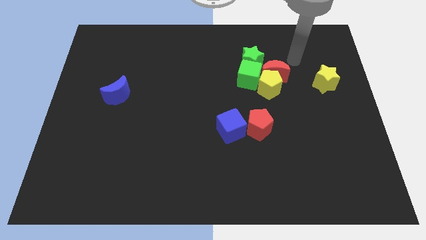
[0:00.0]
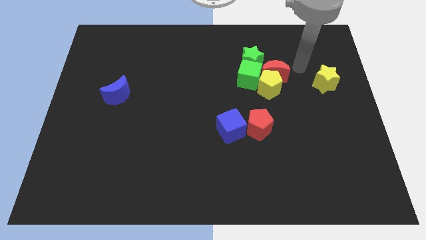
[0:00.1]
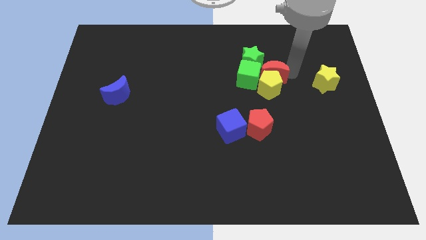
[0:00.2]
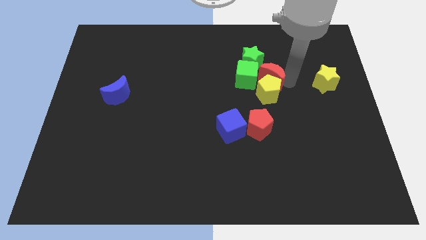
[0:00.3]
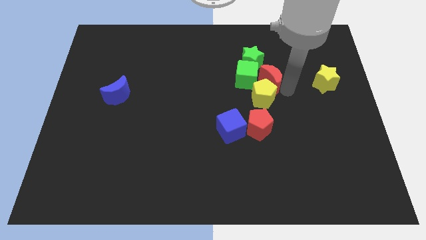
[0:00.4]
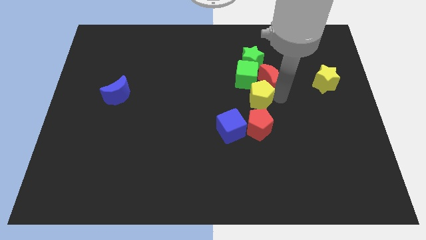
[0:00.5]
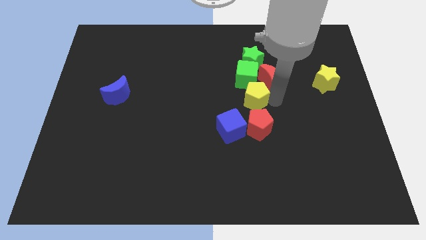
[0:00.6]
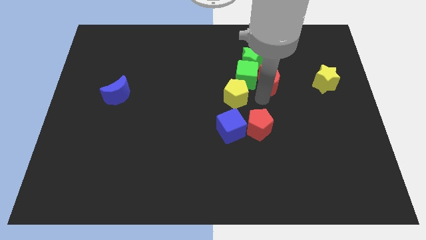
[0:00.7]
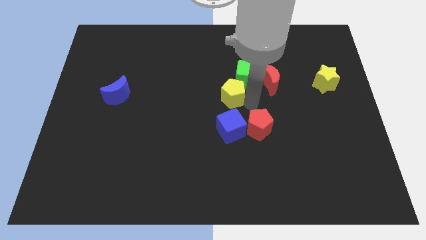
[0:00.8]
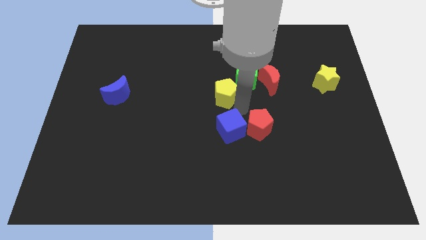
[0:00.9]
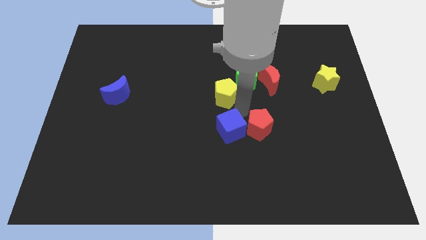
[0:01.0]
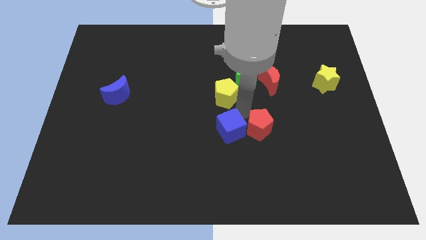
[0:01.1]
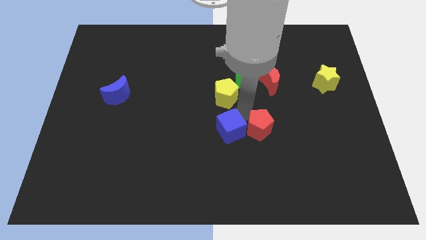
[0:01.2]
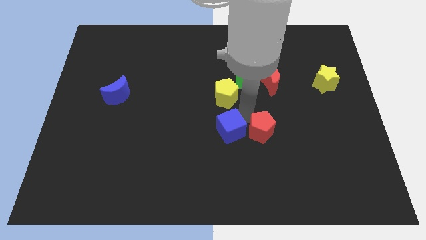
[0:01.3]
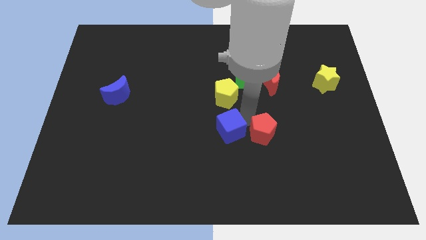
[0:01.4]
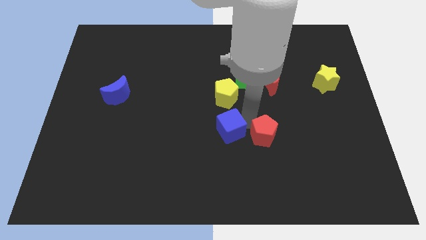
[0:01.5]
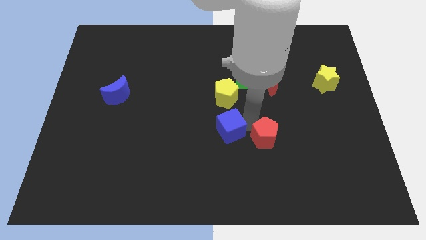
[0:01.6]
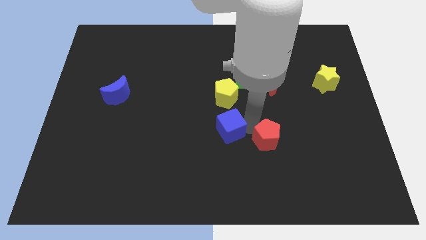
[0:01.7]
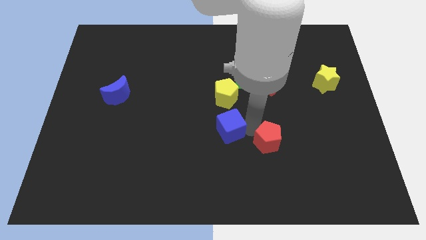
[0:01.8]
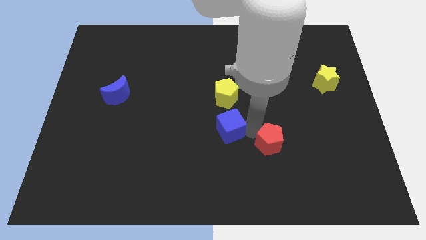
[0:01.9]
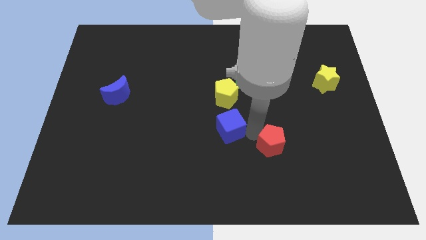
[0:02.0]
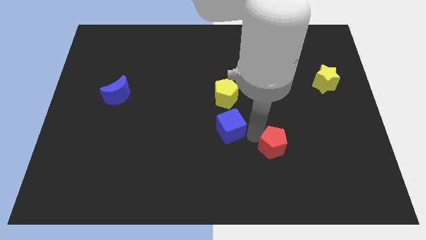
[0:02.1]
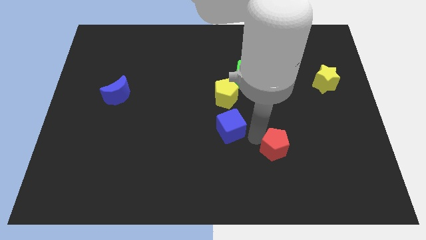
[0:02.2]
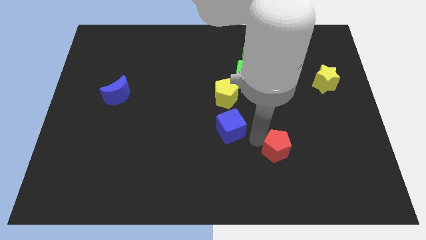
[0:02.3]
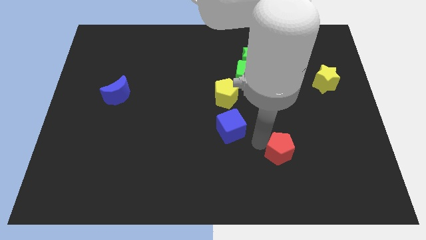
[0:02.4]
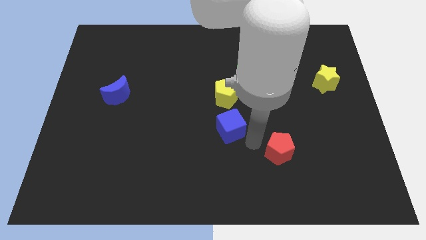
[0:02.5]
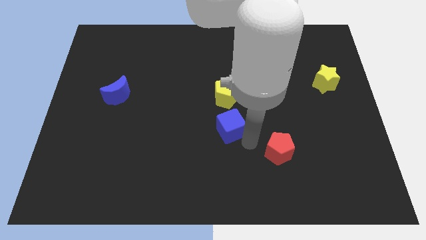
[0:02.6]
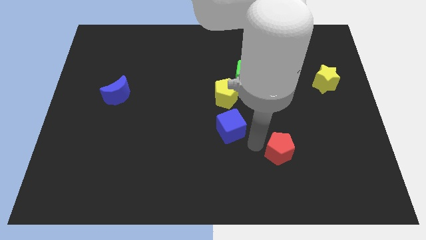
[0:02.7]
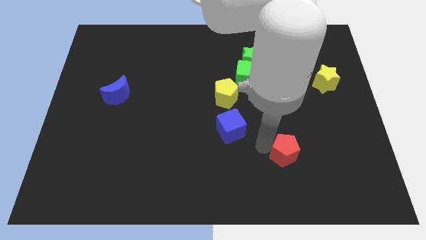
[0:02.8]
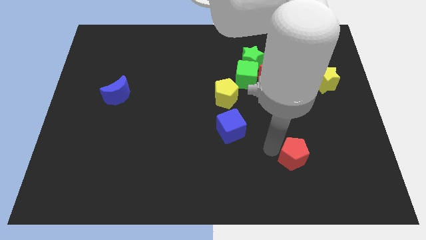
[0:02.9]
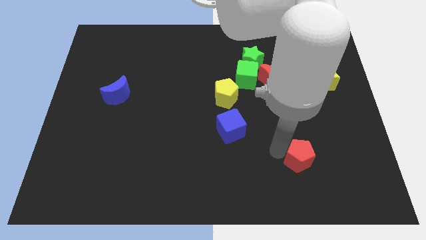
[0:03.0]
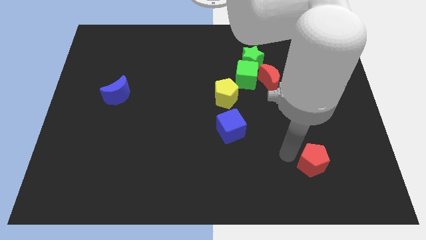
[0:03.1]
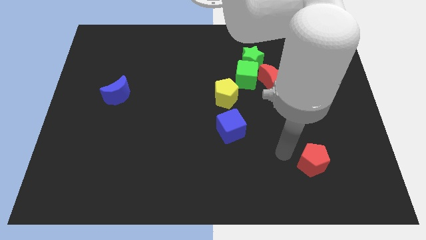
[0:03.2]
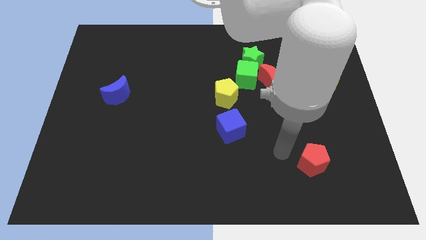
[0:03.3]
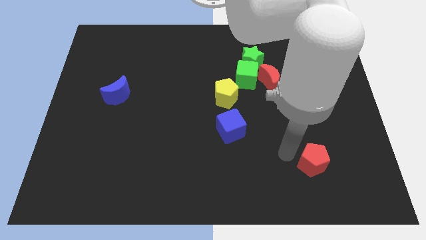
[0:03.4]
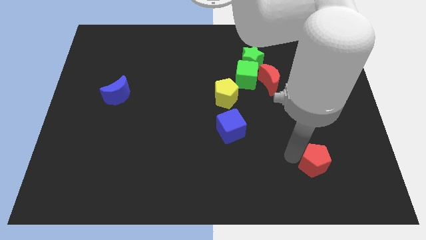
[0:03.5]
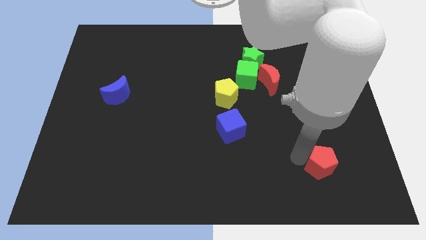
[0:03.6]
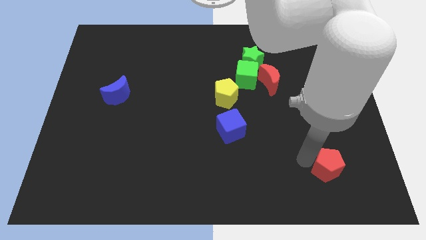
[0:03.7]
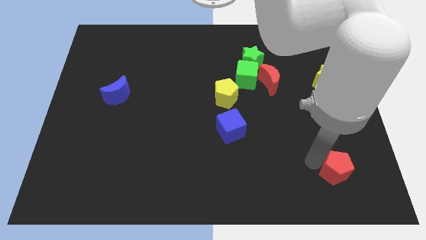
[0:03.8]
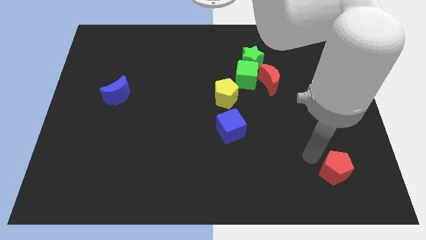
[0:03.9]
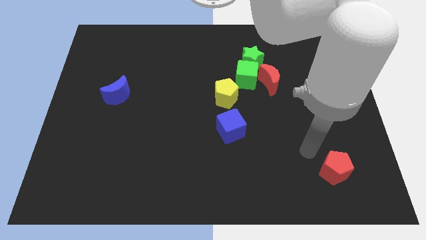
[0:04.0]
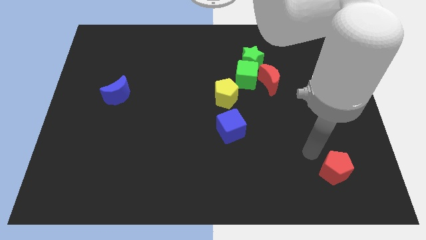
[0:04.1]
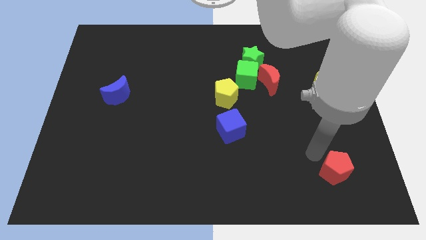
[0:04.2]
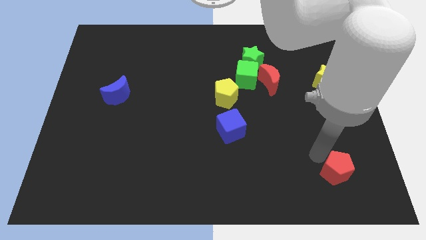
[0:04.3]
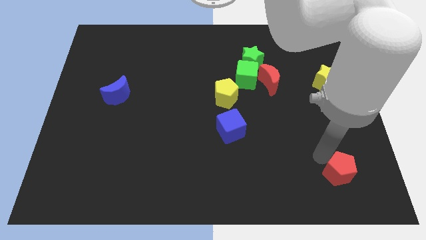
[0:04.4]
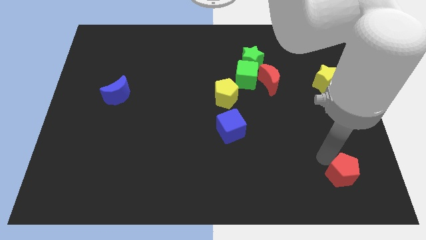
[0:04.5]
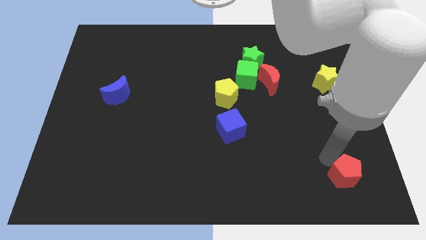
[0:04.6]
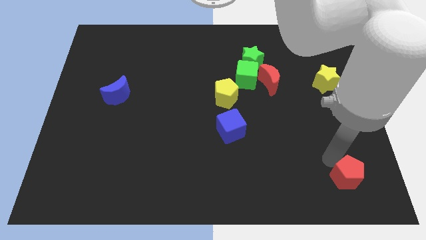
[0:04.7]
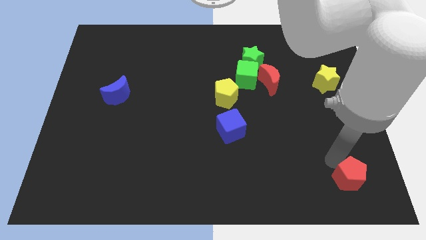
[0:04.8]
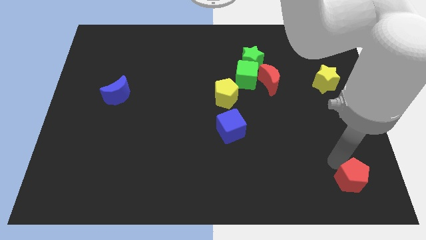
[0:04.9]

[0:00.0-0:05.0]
slide the red pentagon to the bottom right of the board

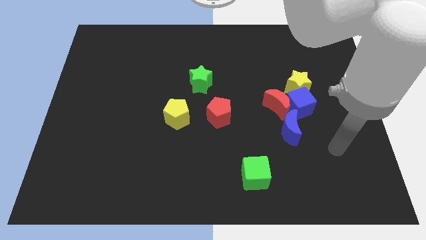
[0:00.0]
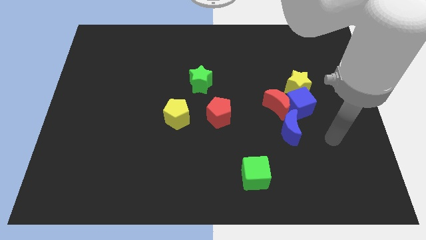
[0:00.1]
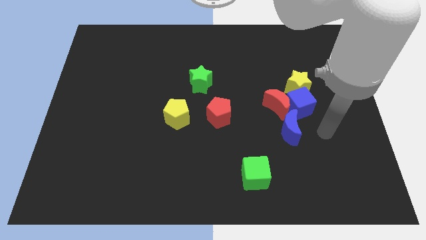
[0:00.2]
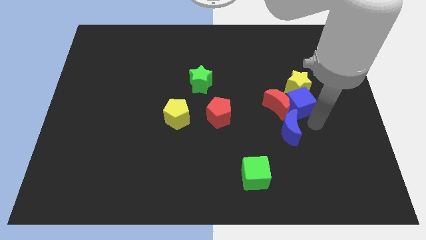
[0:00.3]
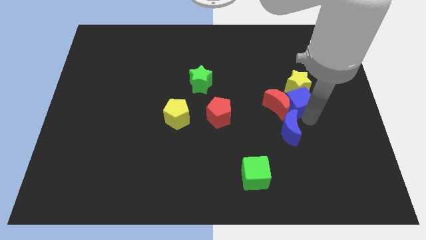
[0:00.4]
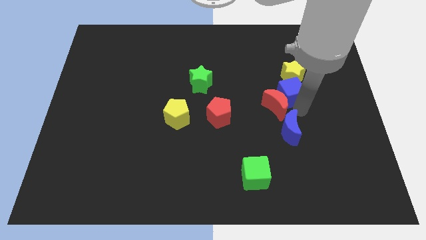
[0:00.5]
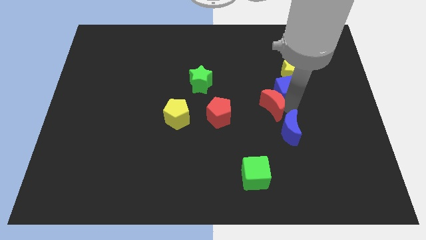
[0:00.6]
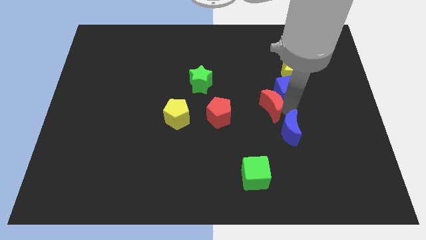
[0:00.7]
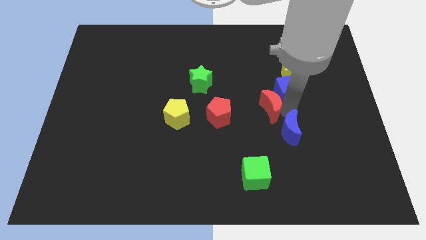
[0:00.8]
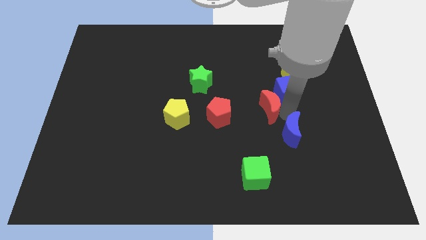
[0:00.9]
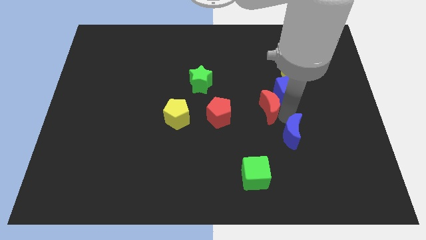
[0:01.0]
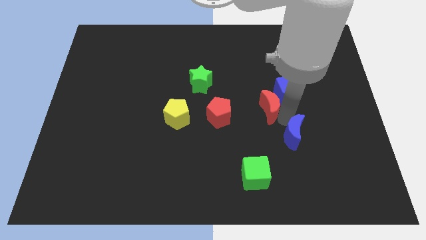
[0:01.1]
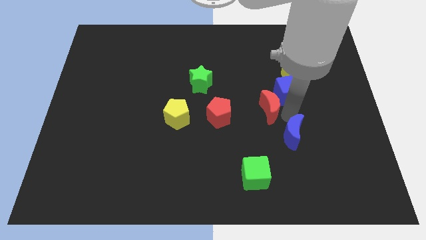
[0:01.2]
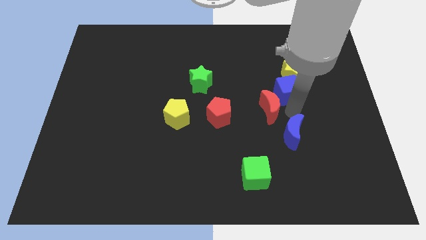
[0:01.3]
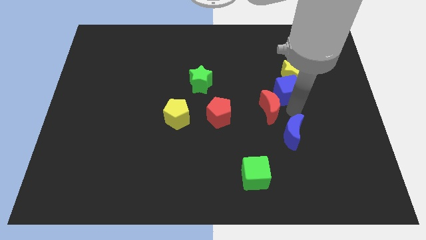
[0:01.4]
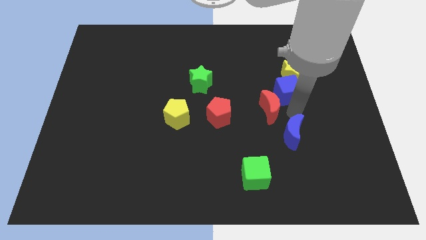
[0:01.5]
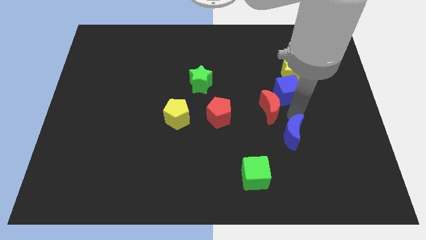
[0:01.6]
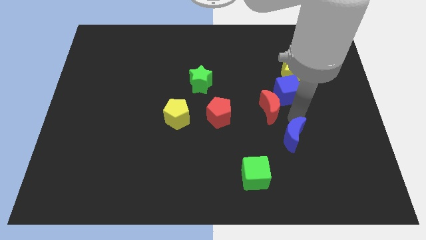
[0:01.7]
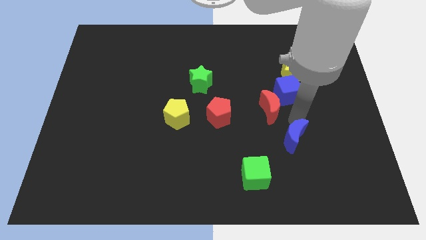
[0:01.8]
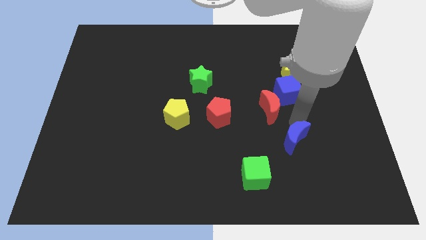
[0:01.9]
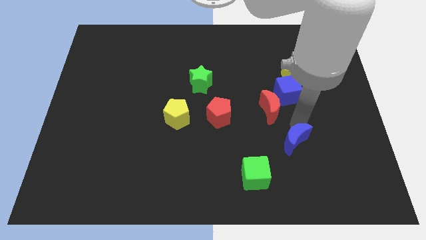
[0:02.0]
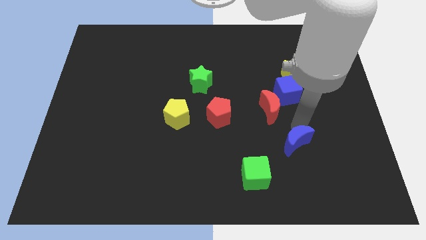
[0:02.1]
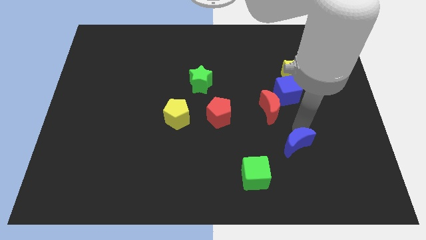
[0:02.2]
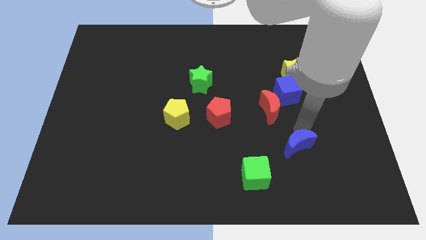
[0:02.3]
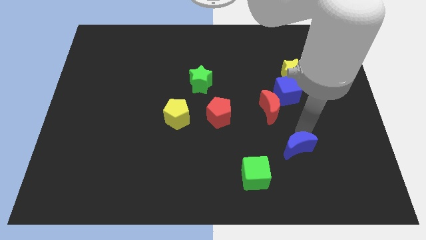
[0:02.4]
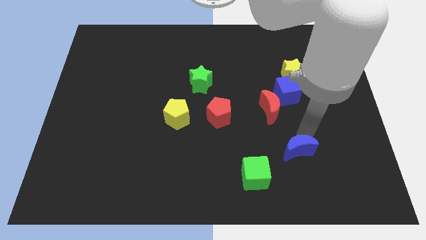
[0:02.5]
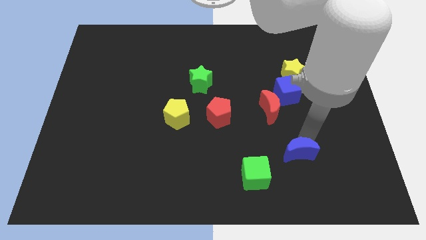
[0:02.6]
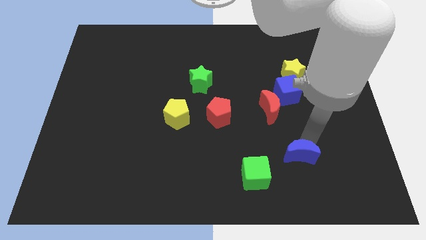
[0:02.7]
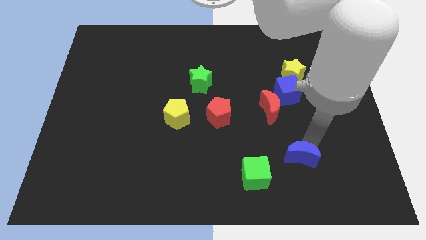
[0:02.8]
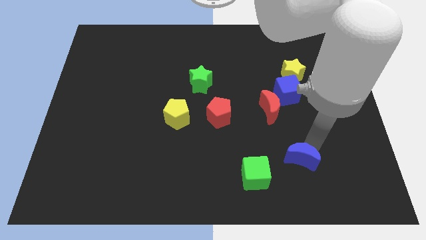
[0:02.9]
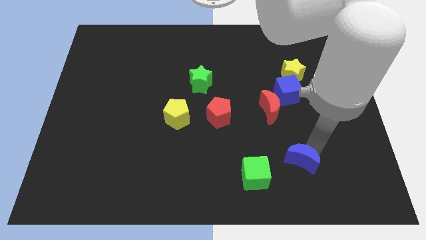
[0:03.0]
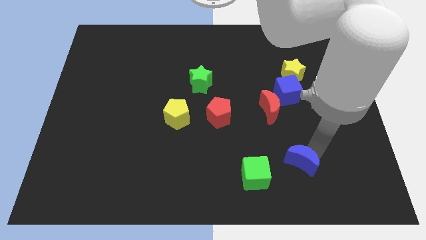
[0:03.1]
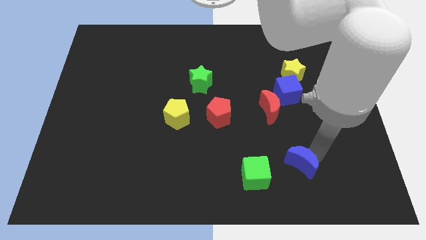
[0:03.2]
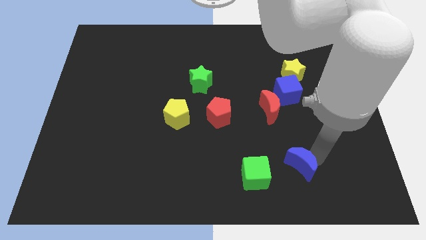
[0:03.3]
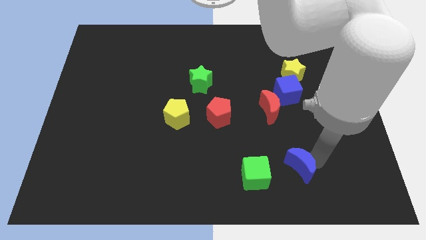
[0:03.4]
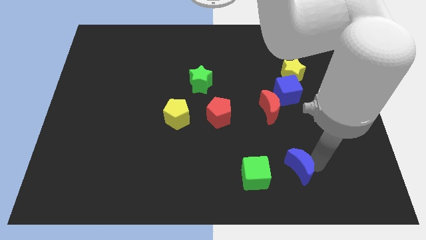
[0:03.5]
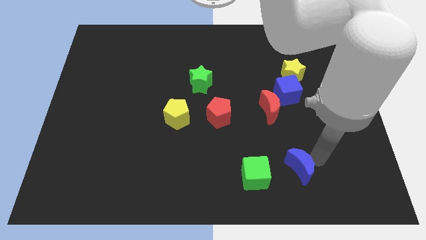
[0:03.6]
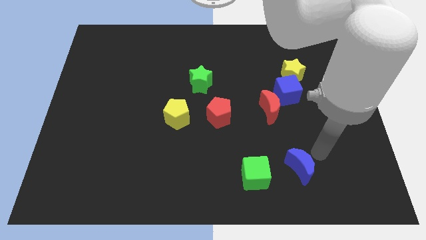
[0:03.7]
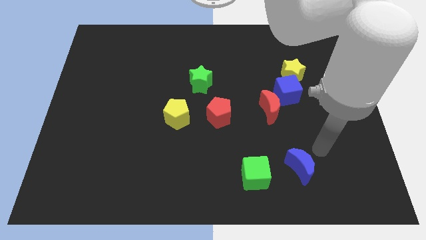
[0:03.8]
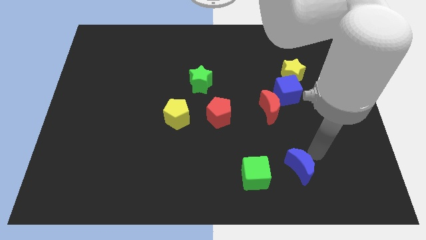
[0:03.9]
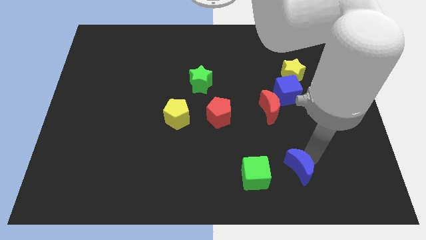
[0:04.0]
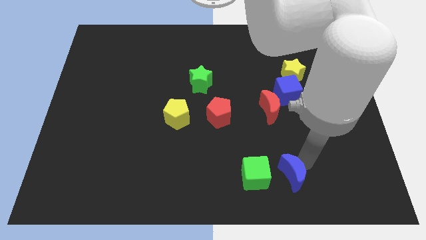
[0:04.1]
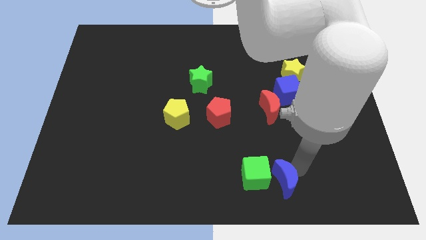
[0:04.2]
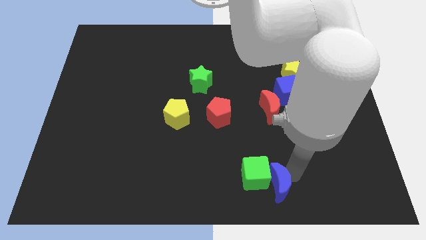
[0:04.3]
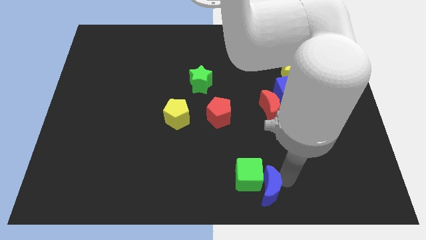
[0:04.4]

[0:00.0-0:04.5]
slide the blue moon to the bottom side
